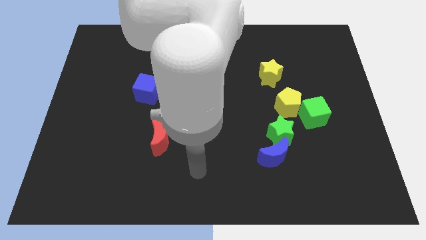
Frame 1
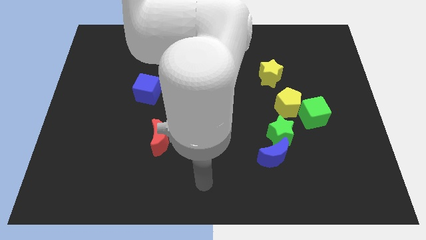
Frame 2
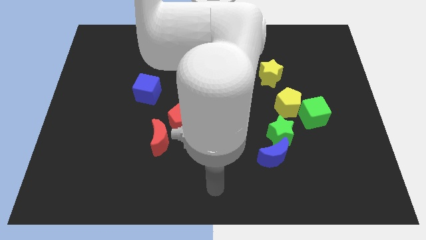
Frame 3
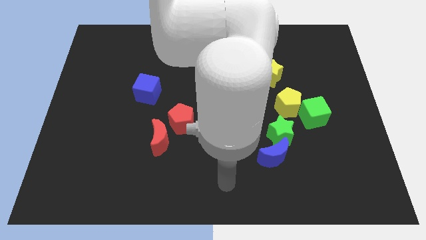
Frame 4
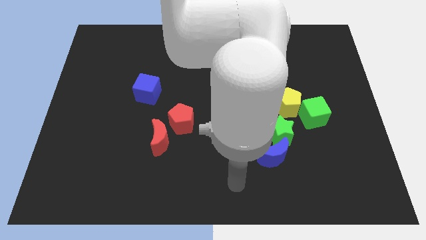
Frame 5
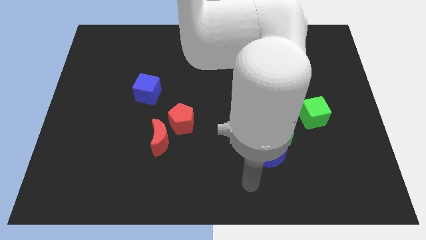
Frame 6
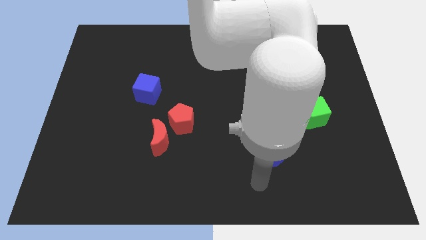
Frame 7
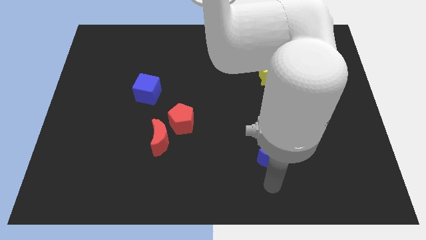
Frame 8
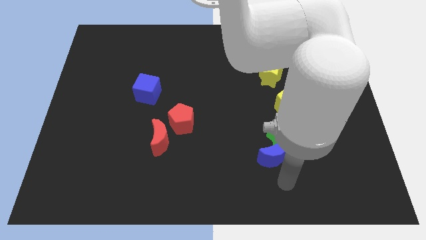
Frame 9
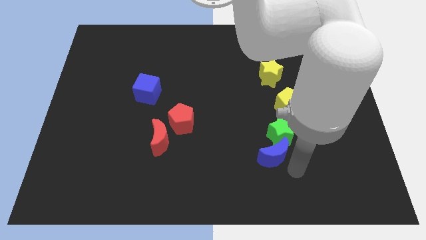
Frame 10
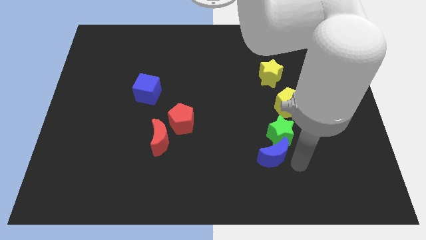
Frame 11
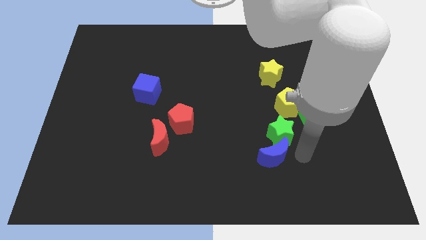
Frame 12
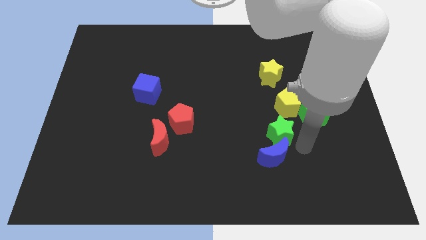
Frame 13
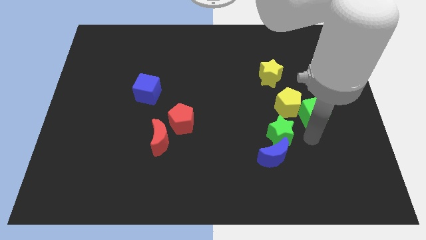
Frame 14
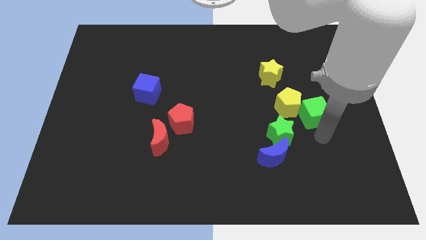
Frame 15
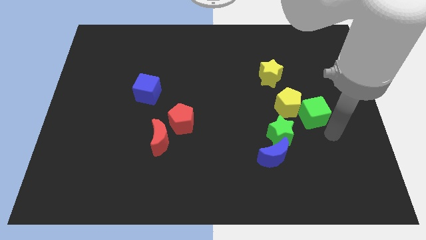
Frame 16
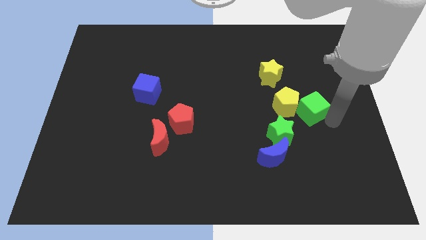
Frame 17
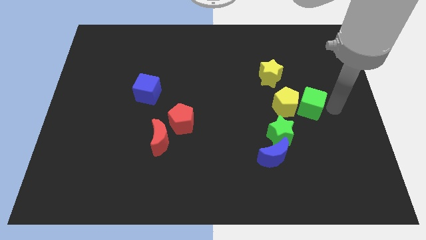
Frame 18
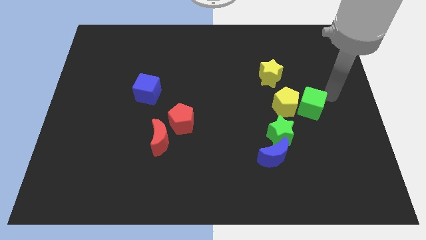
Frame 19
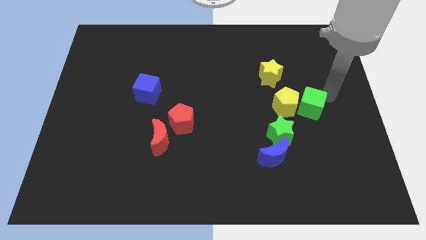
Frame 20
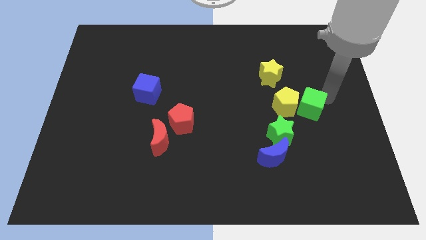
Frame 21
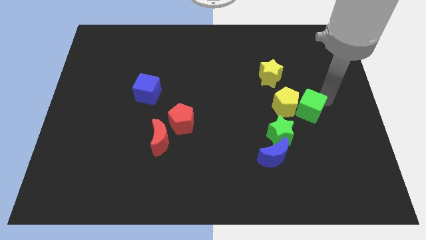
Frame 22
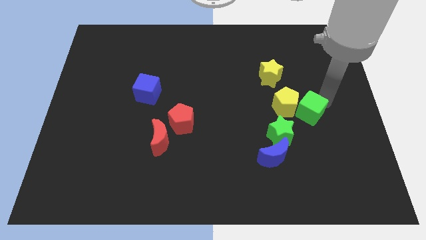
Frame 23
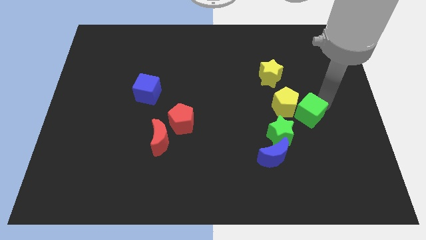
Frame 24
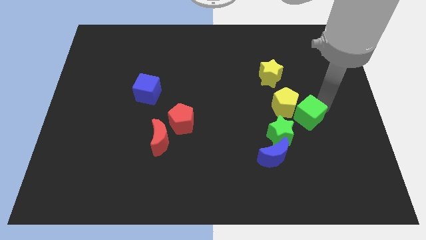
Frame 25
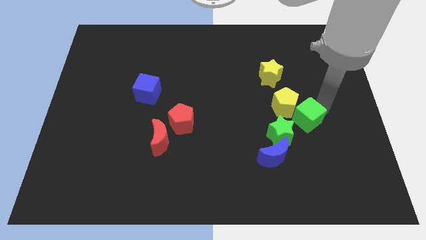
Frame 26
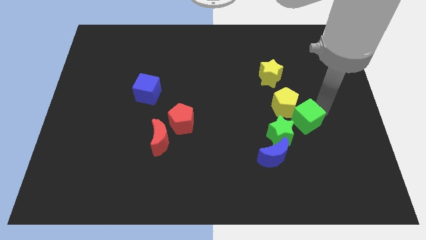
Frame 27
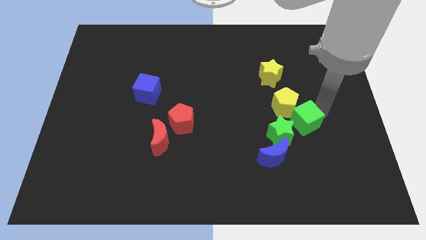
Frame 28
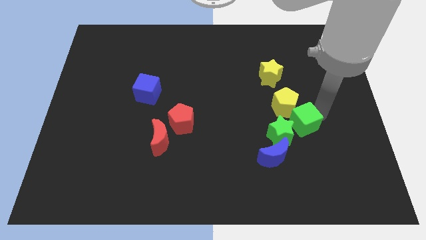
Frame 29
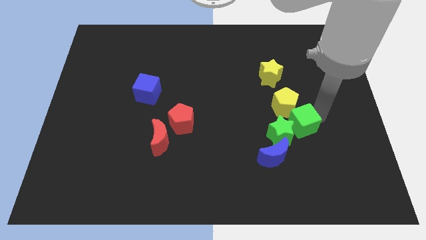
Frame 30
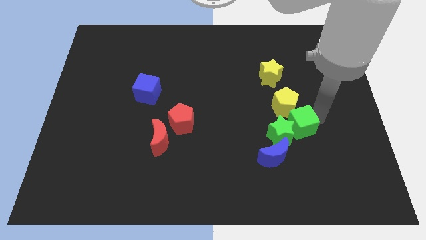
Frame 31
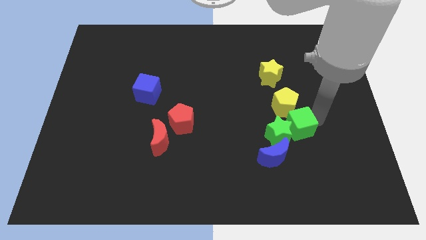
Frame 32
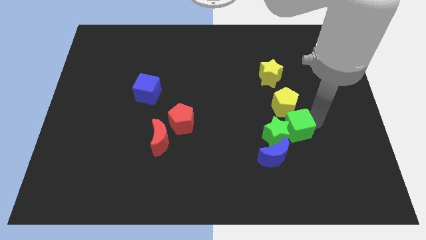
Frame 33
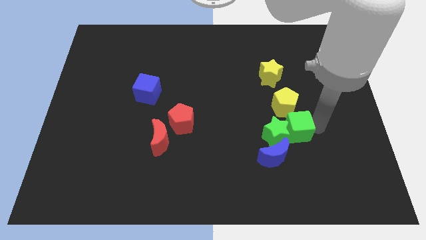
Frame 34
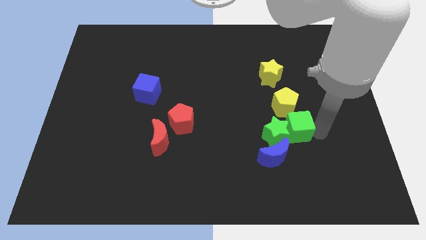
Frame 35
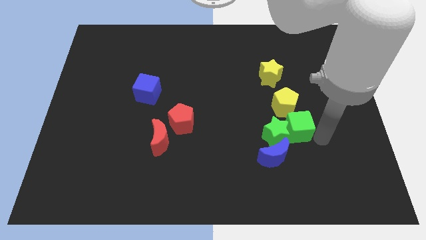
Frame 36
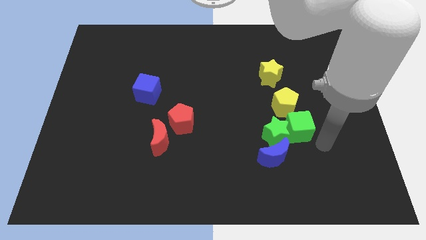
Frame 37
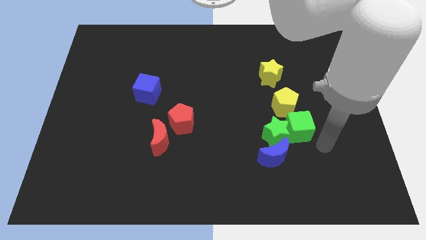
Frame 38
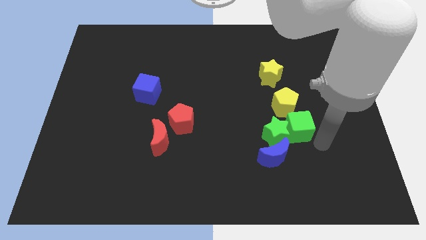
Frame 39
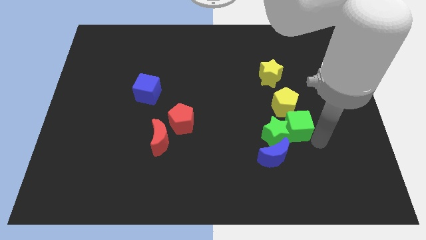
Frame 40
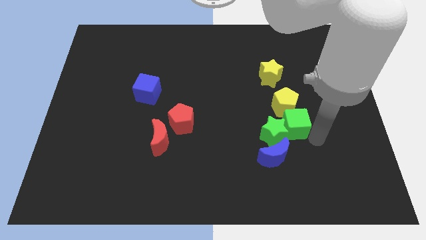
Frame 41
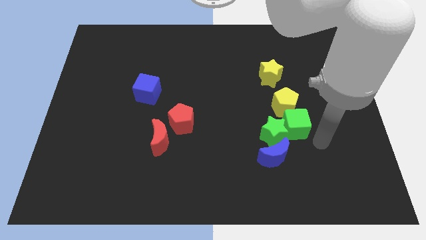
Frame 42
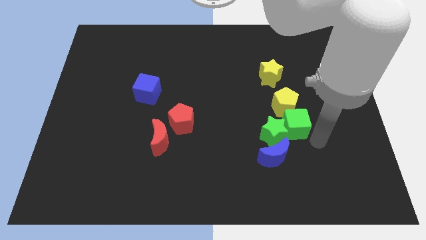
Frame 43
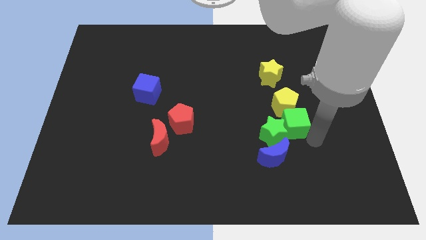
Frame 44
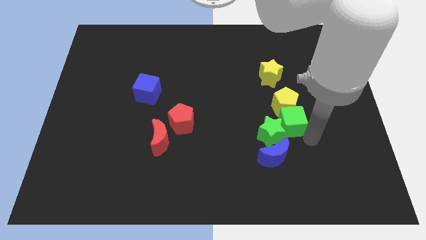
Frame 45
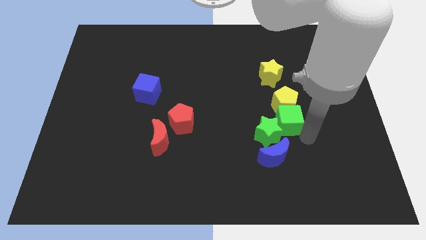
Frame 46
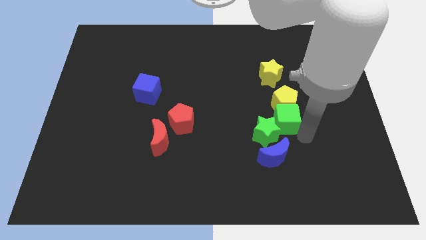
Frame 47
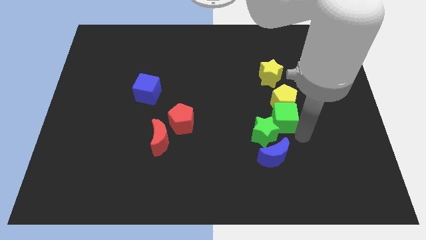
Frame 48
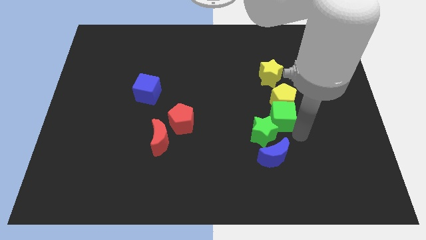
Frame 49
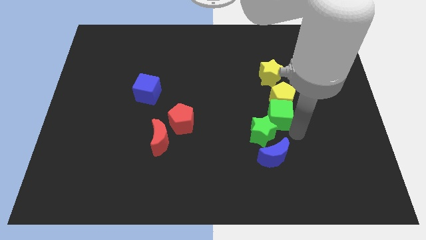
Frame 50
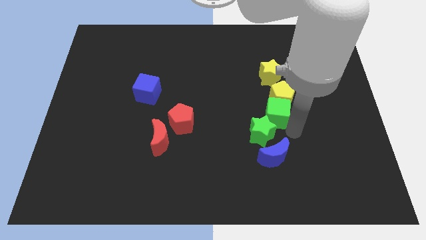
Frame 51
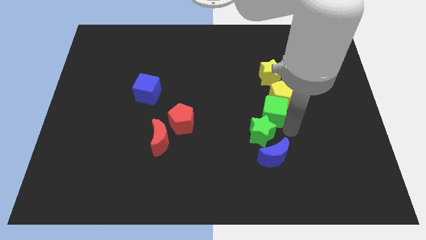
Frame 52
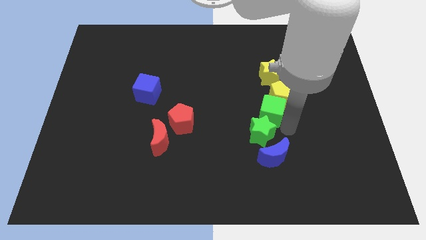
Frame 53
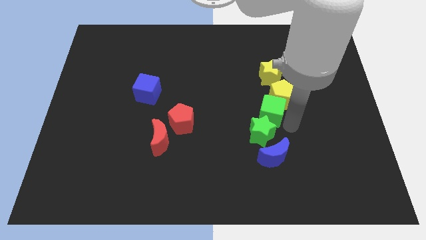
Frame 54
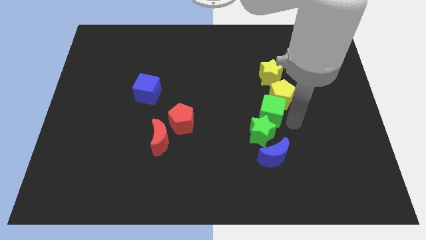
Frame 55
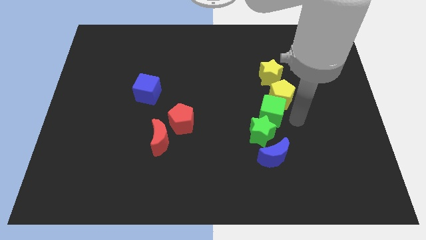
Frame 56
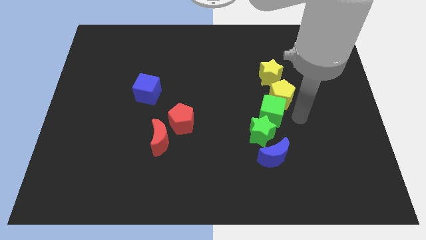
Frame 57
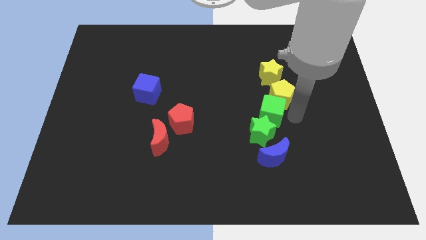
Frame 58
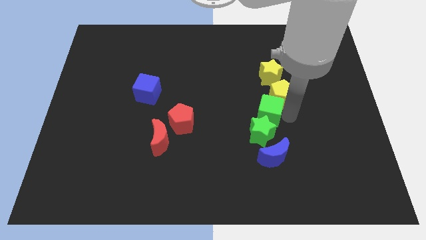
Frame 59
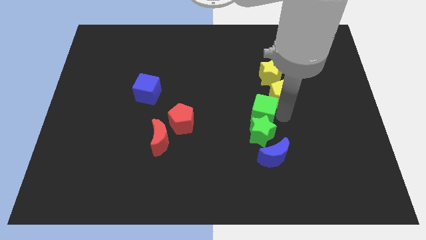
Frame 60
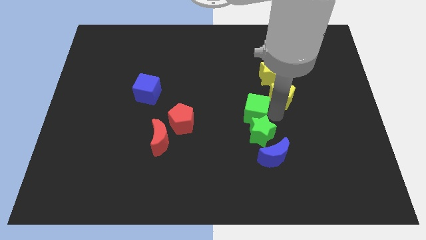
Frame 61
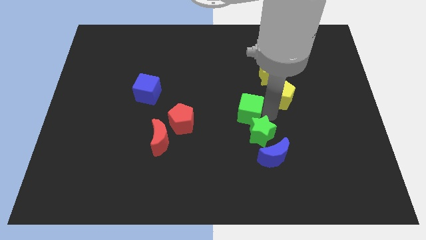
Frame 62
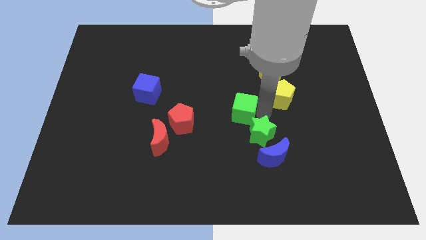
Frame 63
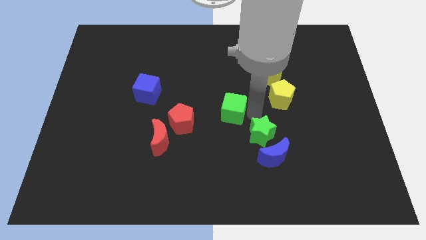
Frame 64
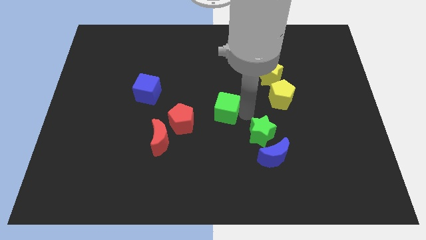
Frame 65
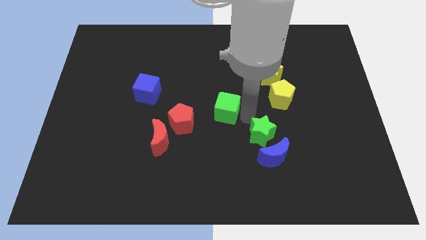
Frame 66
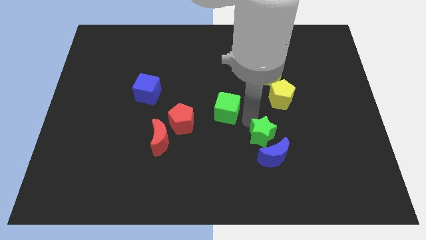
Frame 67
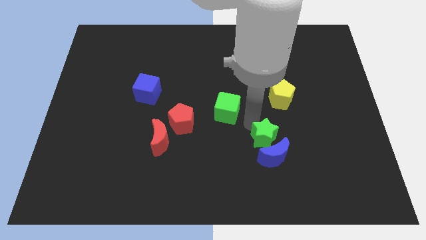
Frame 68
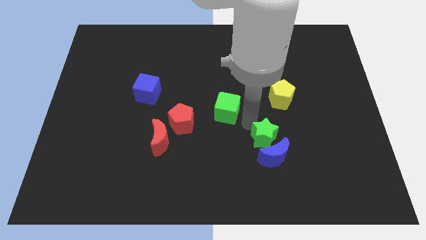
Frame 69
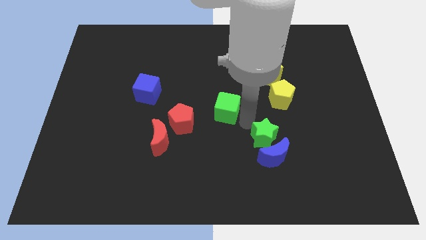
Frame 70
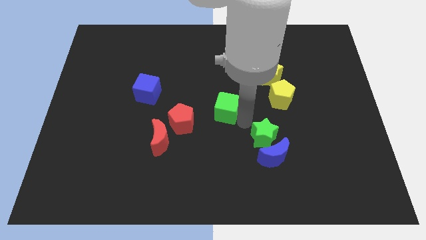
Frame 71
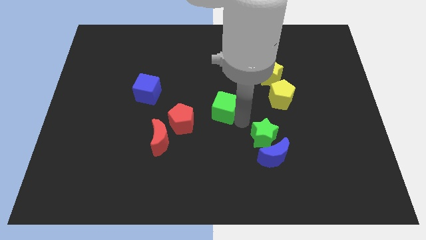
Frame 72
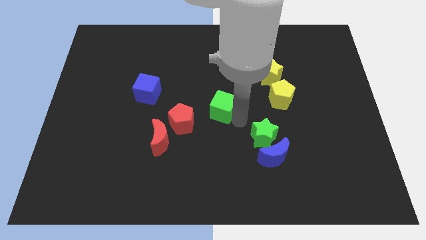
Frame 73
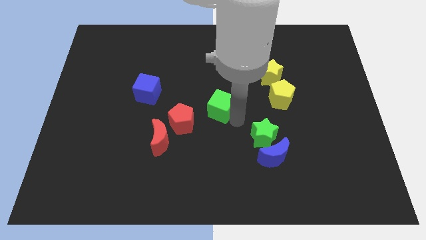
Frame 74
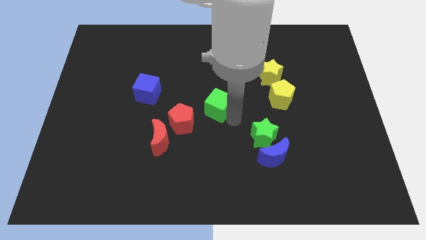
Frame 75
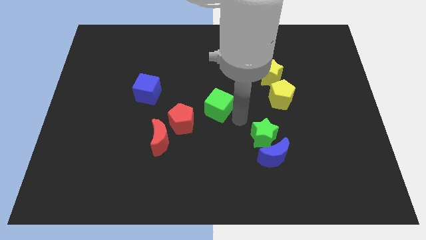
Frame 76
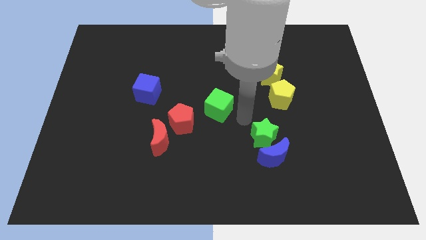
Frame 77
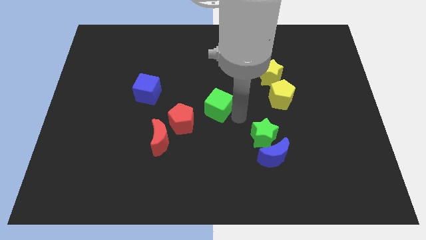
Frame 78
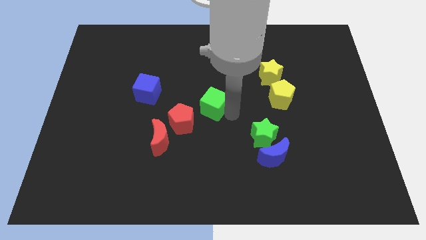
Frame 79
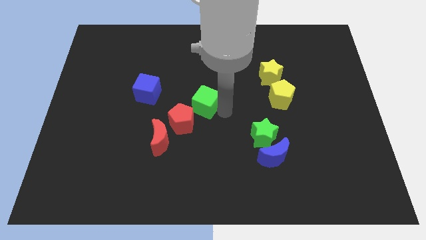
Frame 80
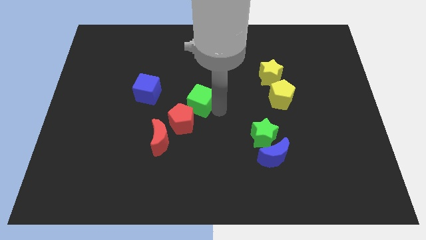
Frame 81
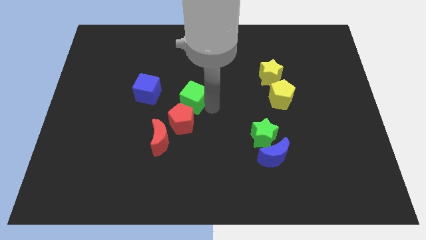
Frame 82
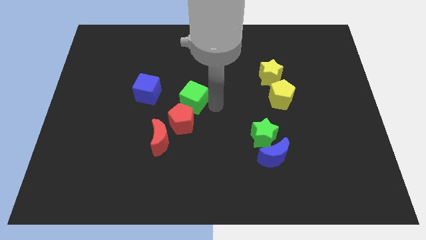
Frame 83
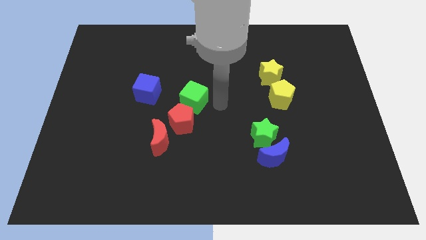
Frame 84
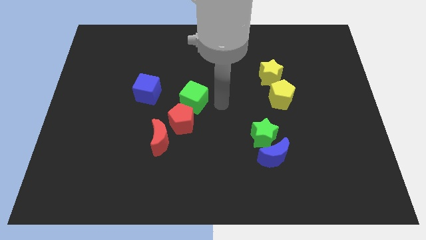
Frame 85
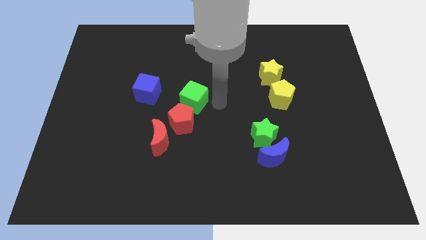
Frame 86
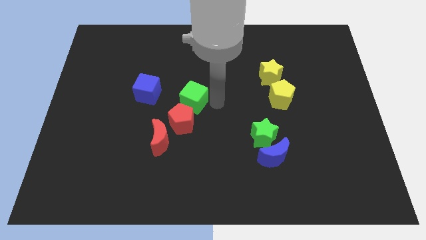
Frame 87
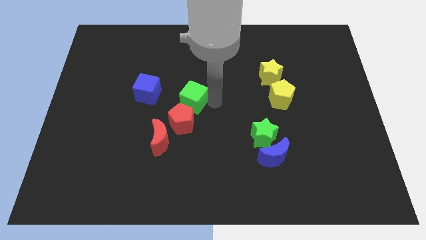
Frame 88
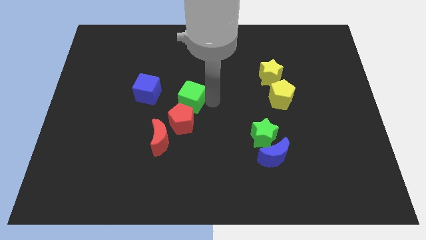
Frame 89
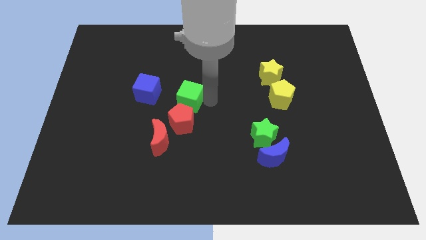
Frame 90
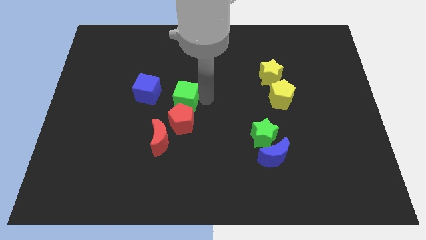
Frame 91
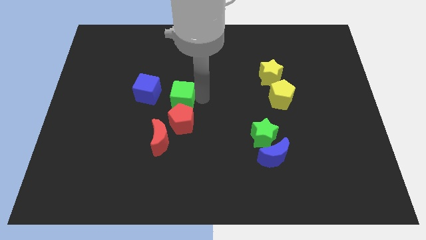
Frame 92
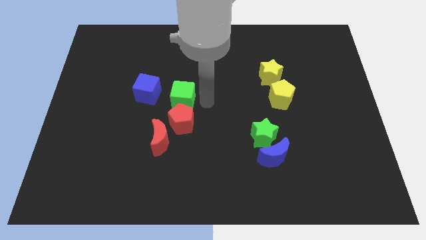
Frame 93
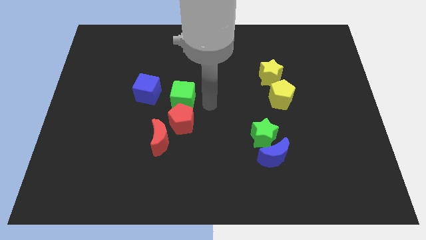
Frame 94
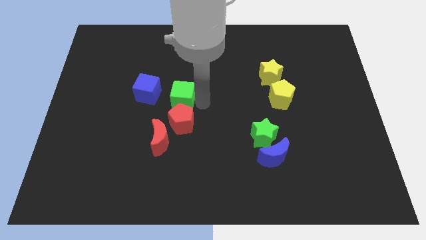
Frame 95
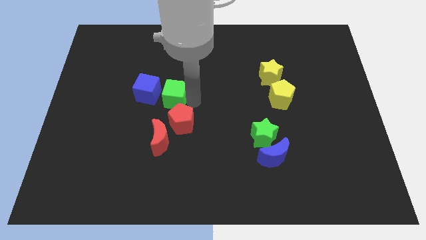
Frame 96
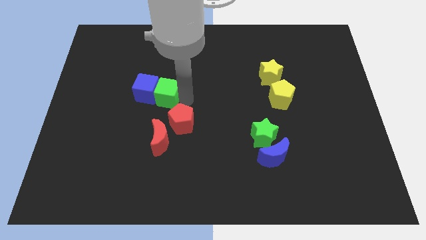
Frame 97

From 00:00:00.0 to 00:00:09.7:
put the green cube close to the blue cube
